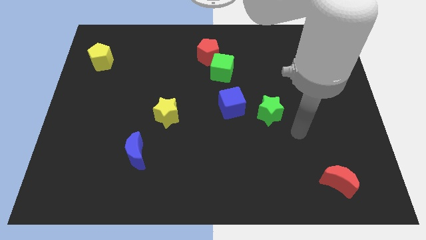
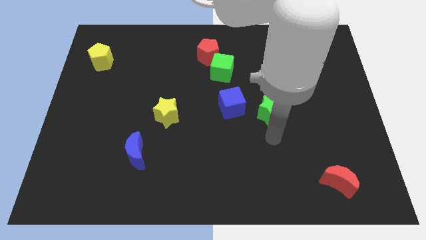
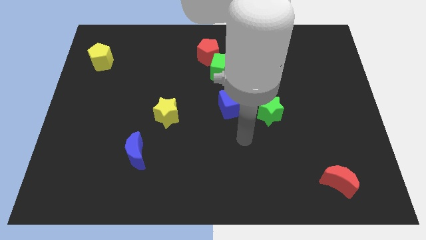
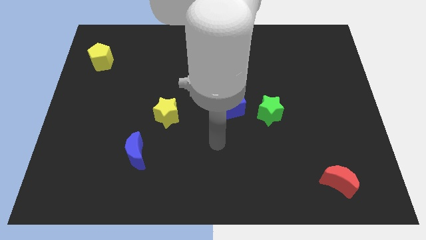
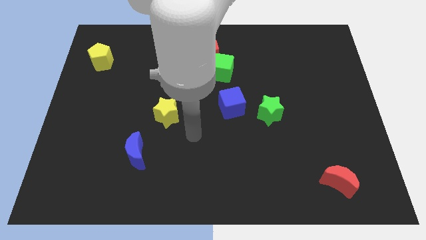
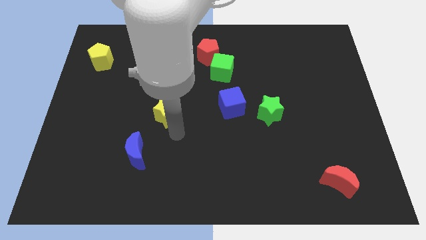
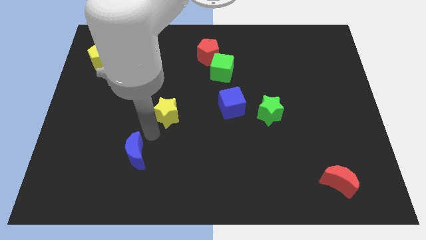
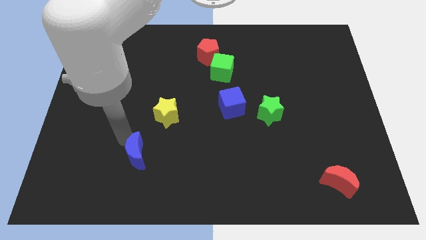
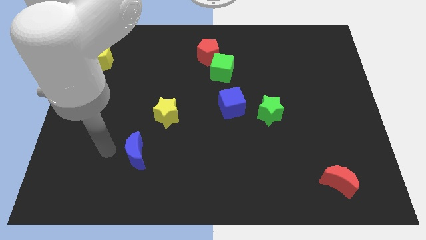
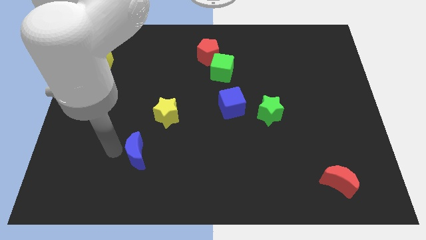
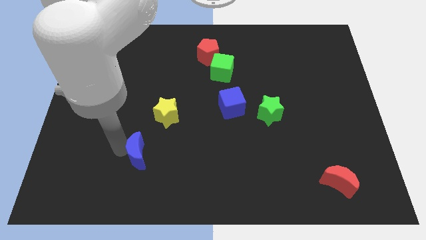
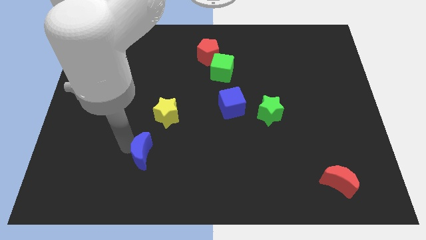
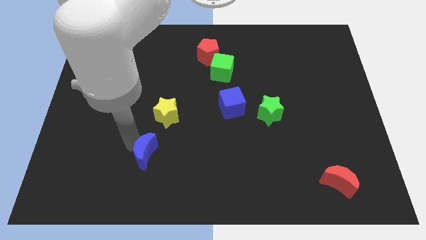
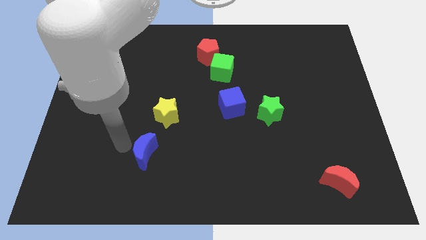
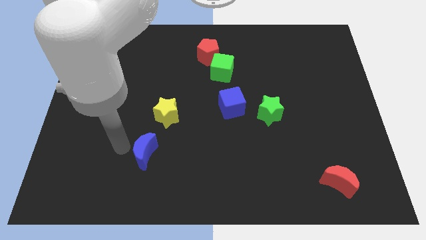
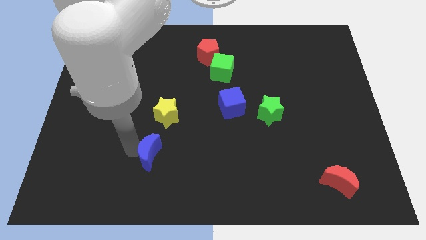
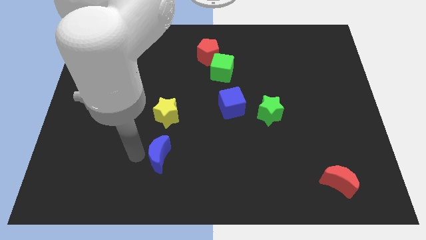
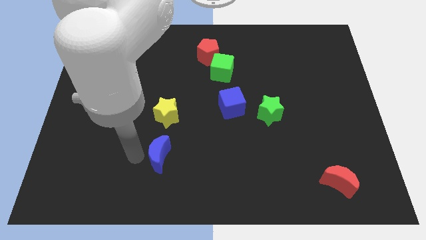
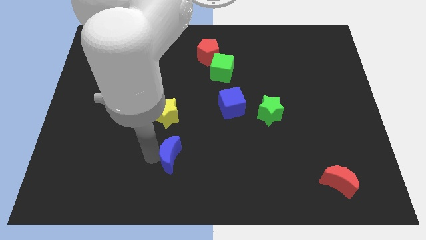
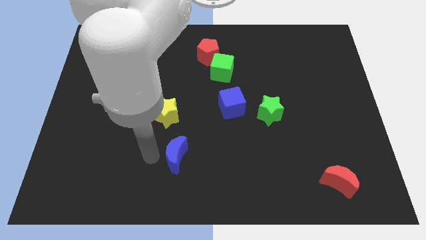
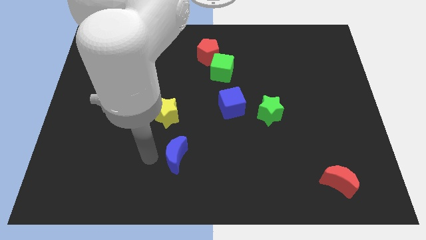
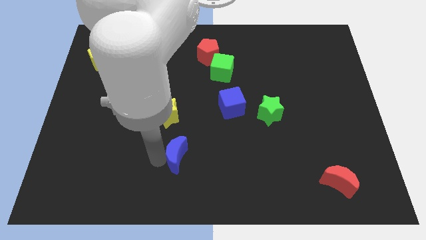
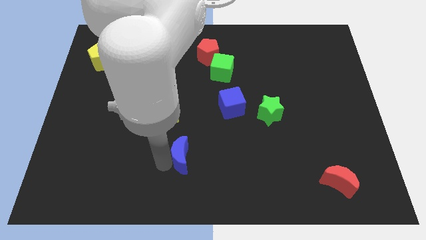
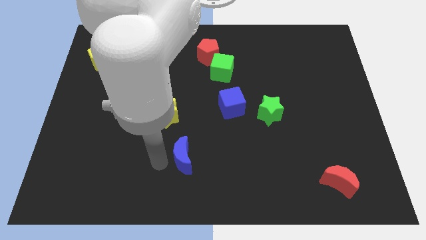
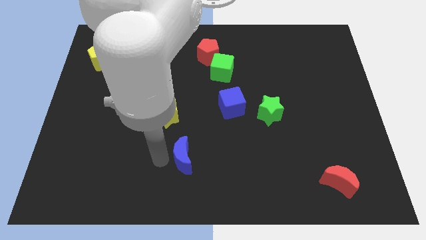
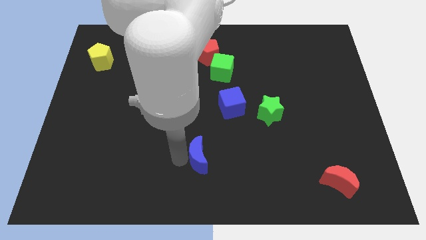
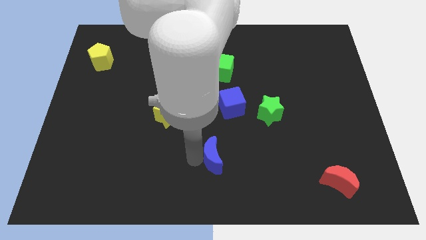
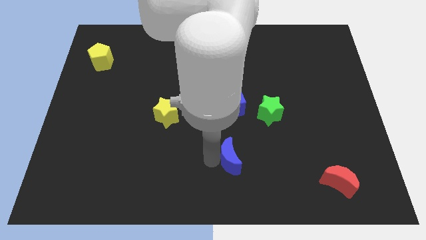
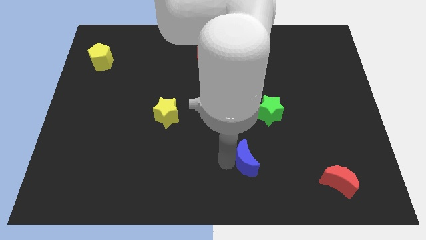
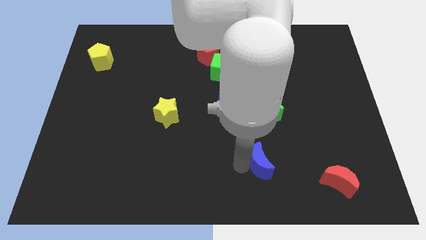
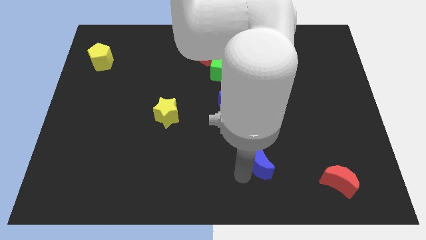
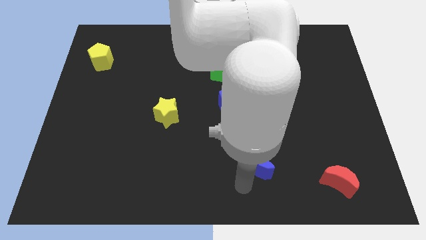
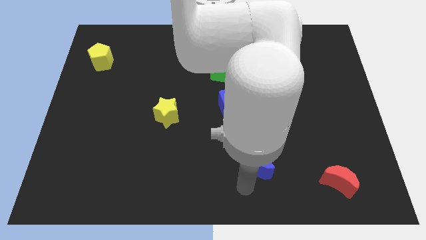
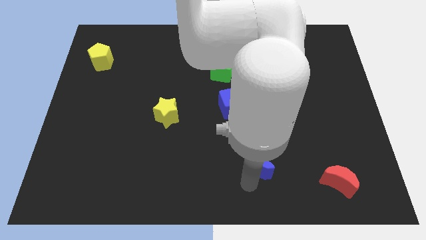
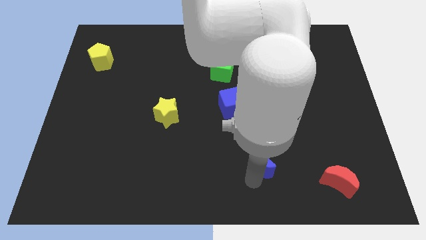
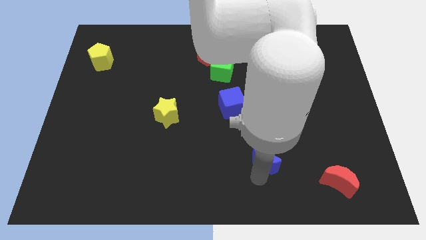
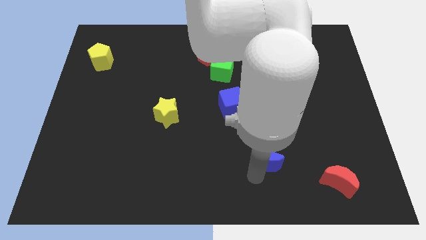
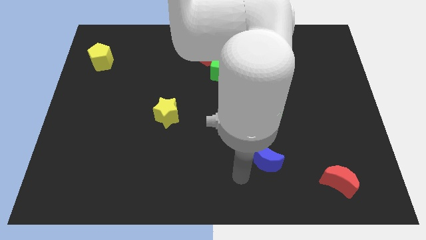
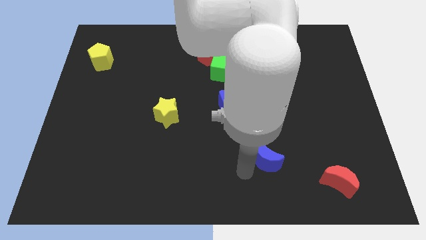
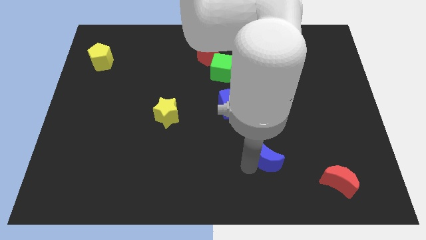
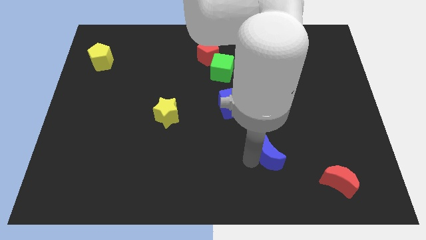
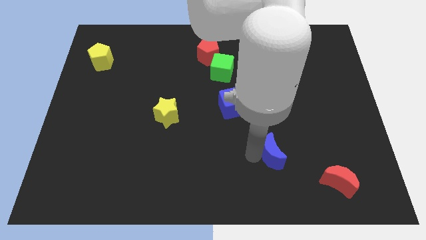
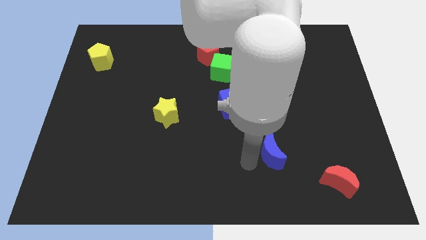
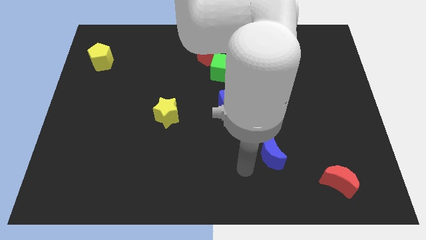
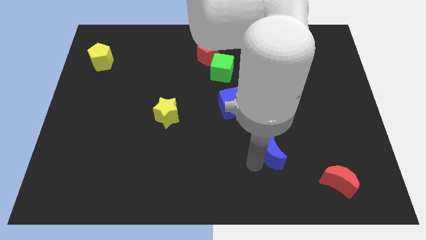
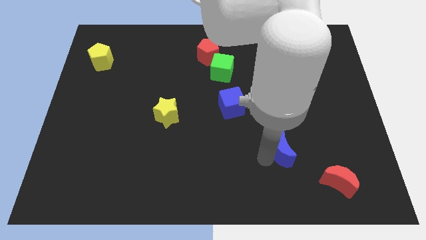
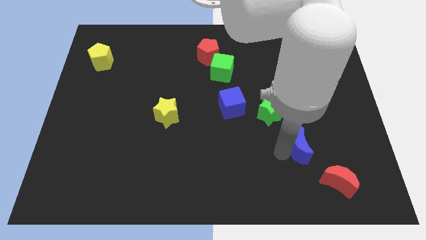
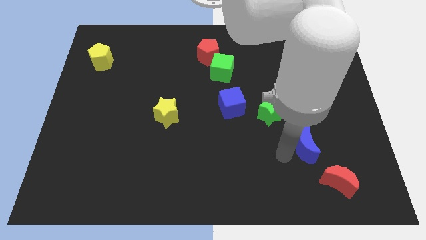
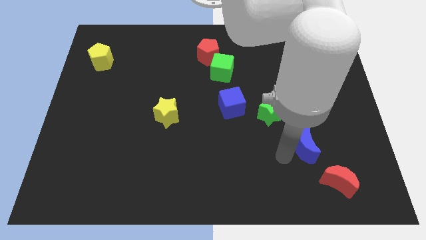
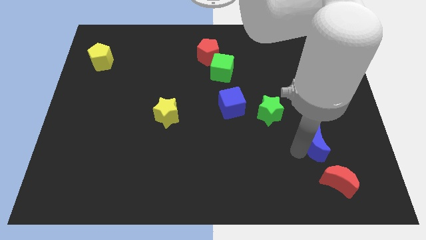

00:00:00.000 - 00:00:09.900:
push the blue moon above the red moon

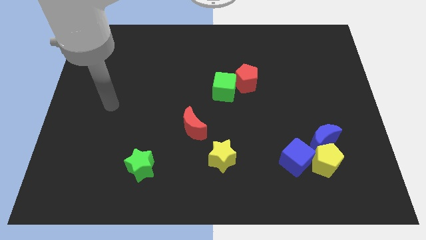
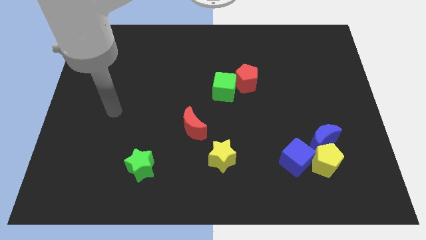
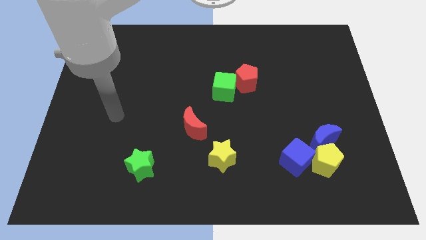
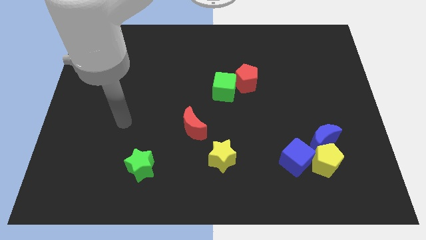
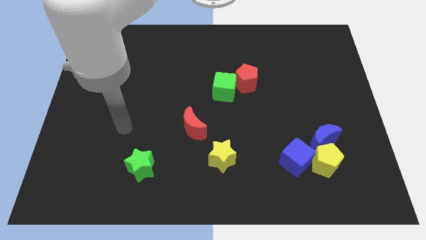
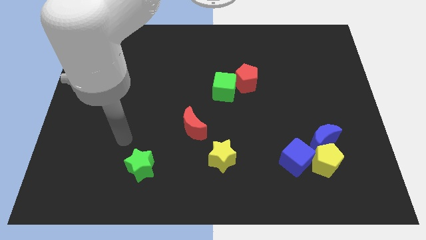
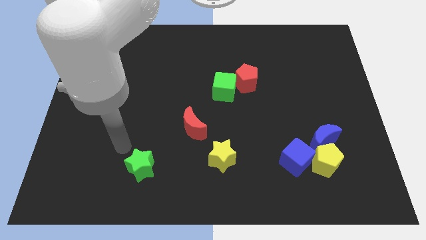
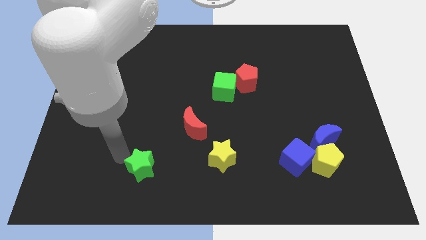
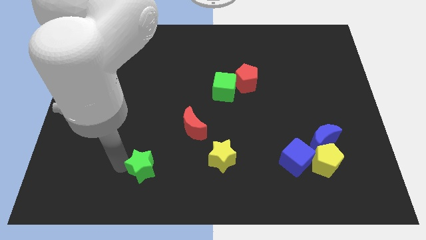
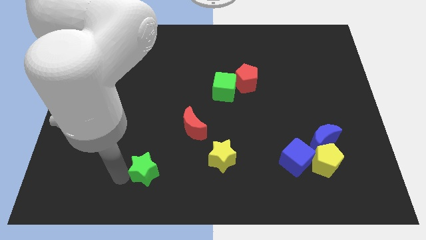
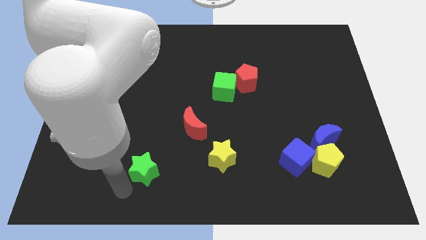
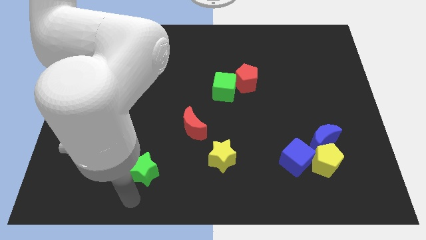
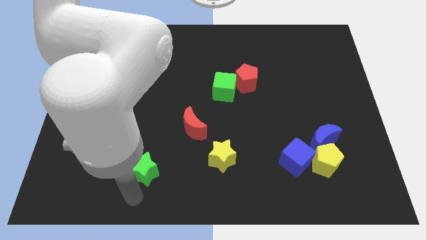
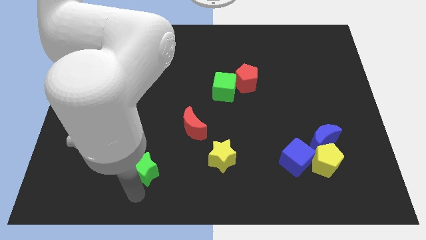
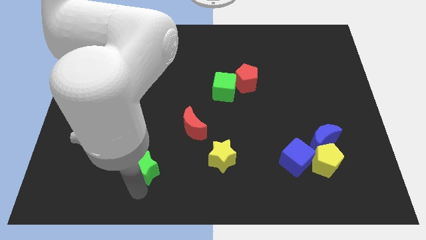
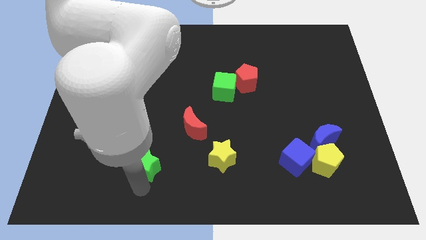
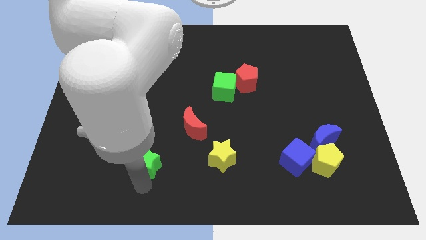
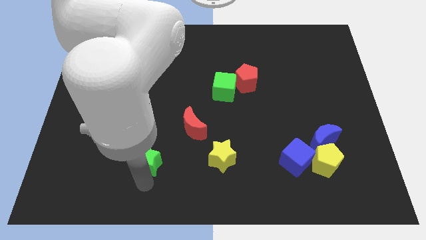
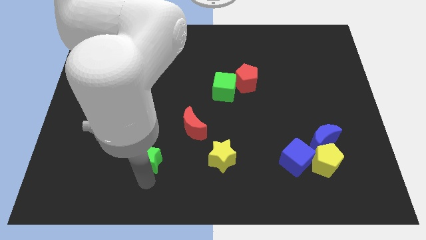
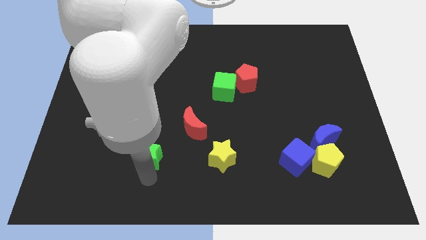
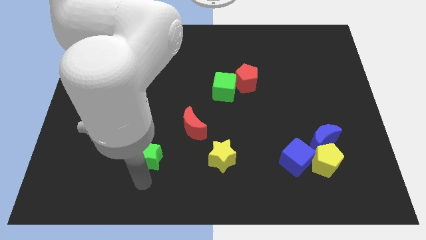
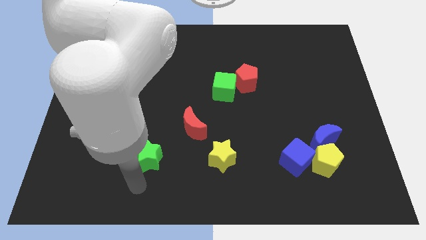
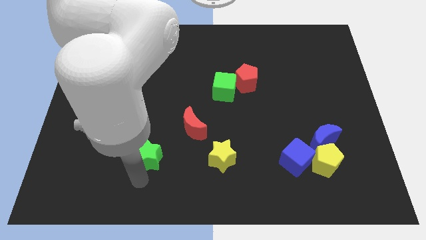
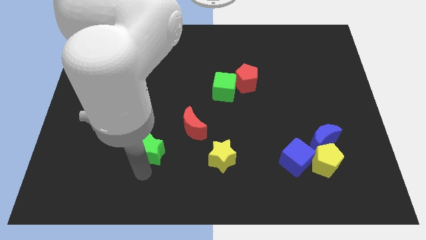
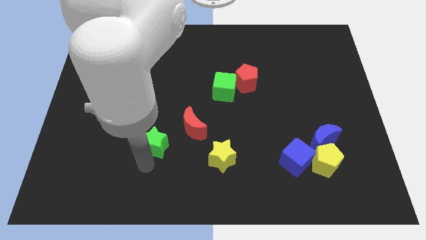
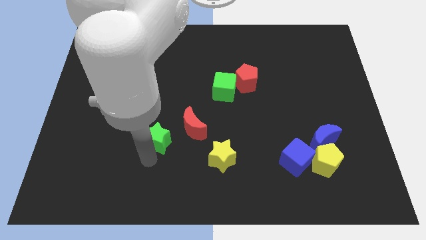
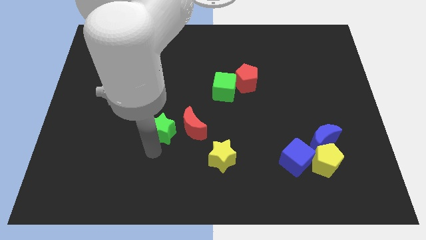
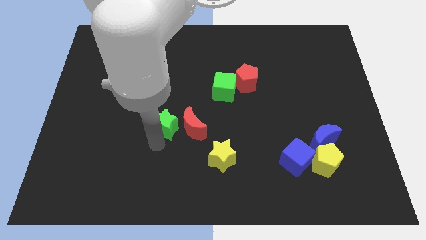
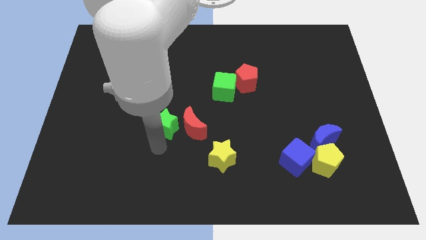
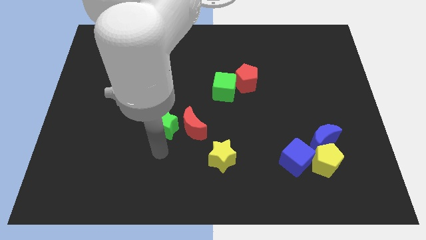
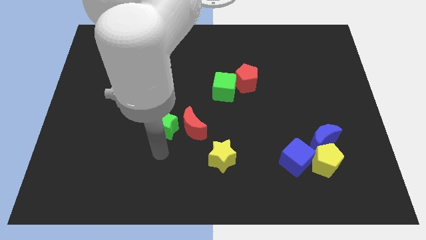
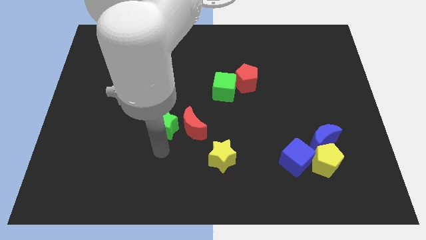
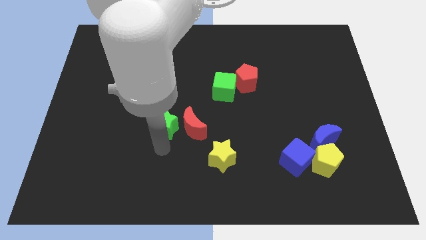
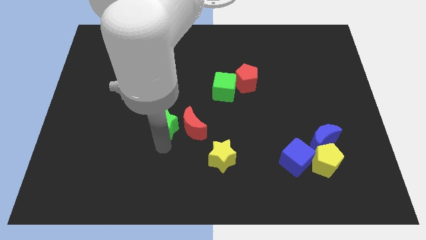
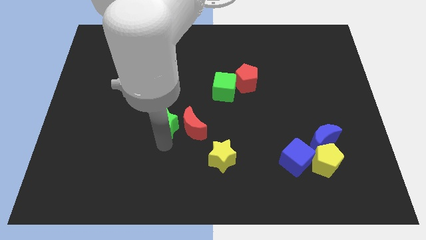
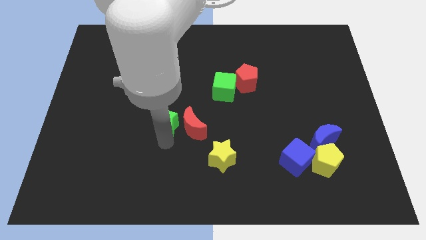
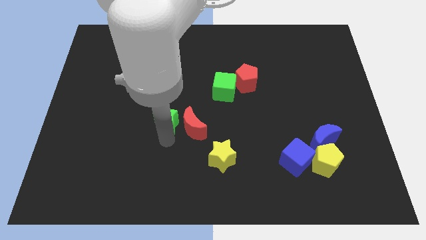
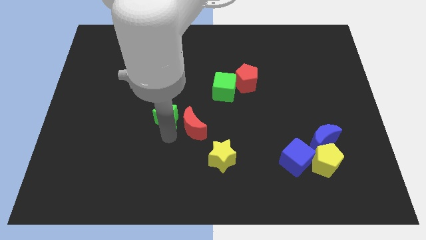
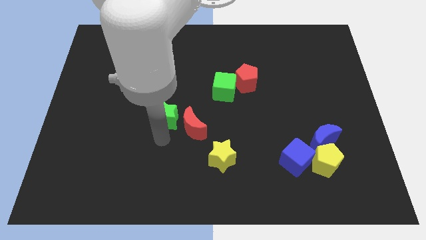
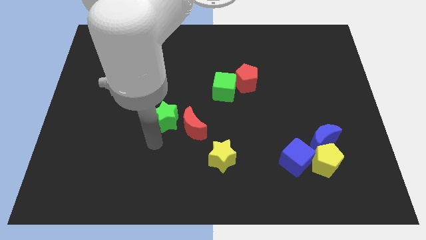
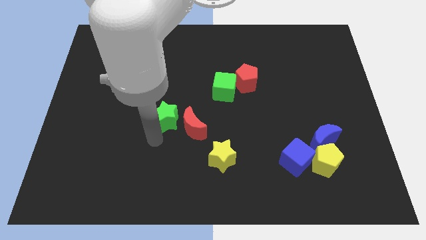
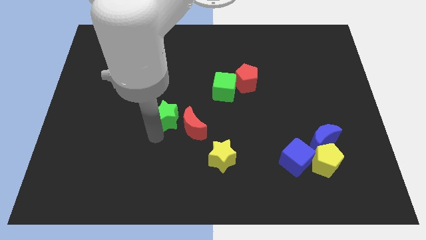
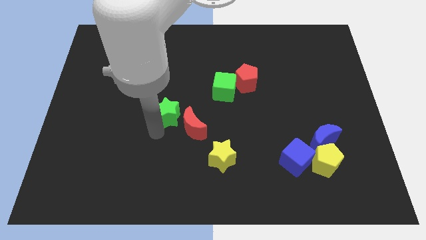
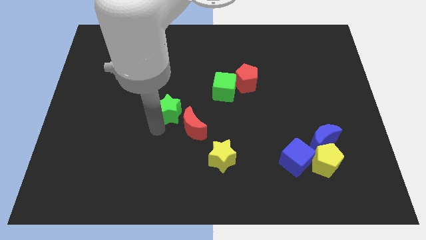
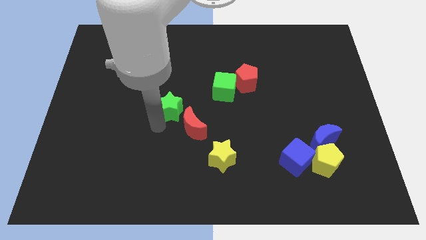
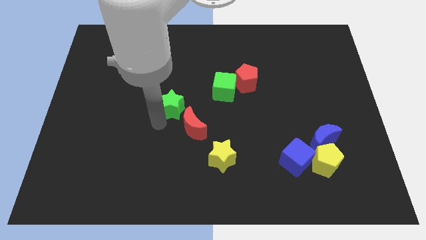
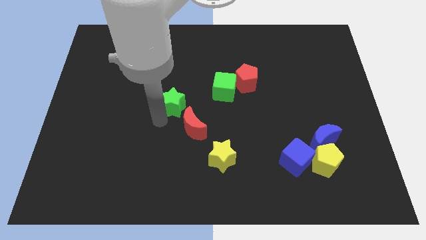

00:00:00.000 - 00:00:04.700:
put the green star left of the green cube
